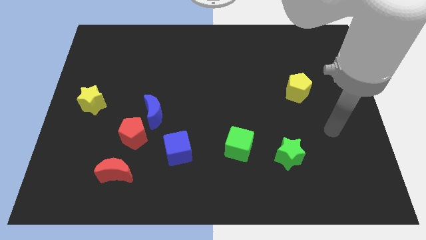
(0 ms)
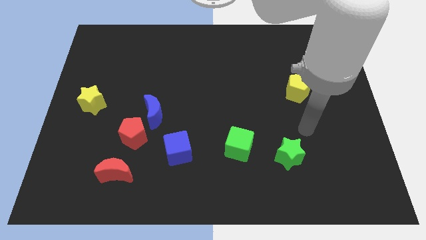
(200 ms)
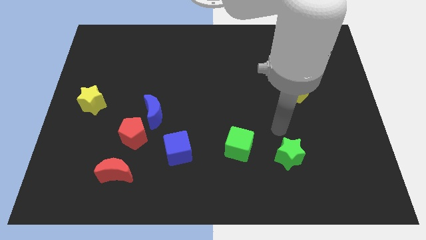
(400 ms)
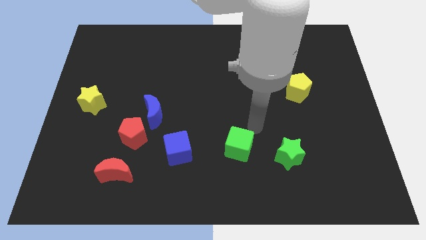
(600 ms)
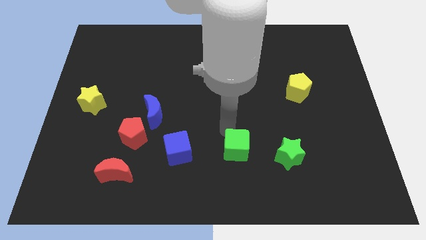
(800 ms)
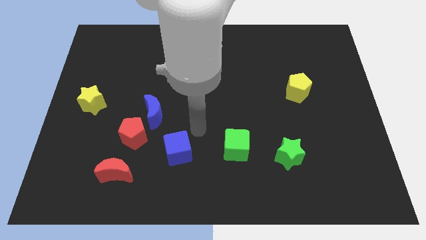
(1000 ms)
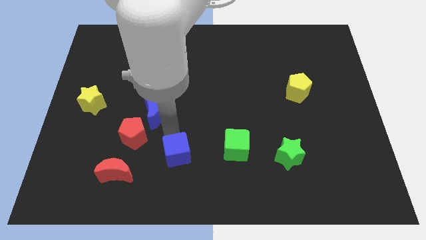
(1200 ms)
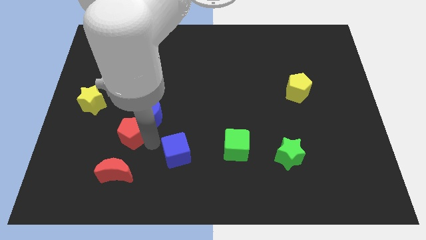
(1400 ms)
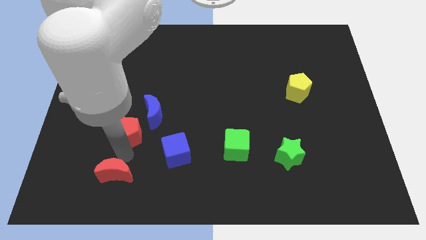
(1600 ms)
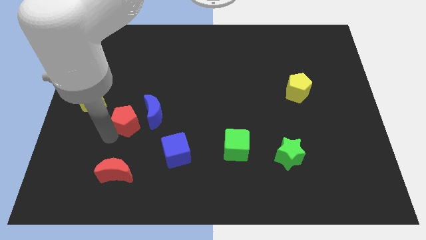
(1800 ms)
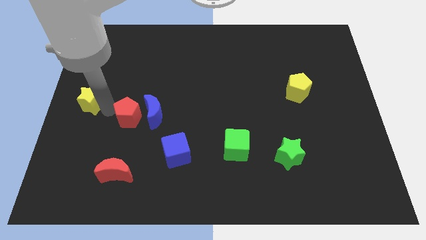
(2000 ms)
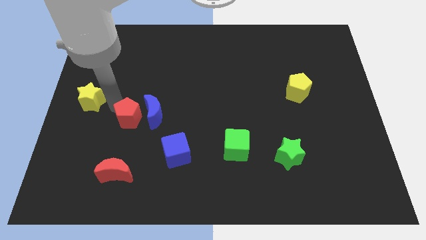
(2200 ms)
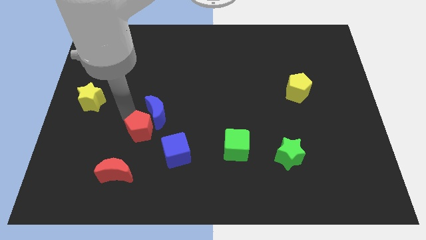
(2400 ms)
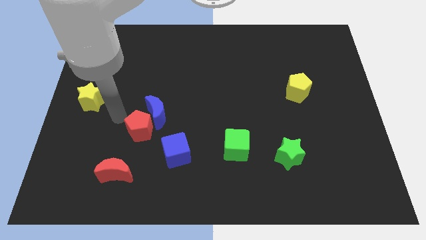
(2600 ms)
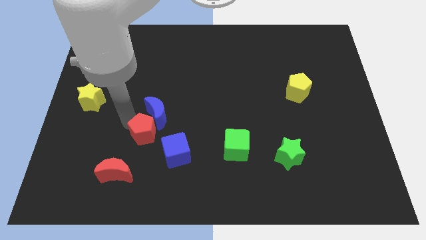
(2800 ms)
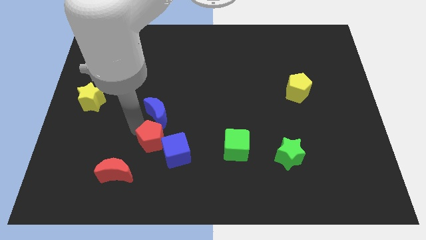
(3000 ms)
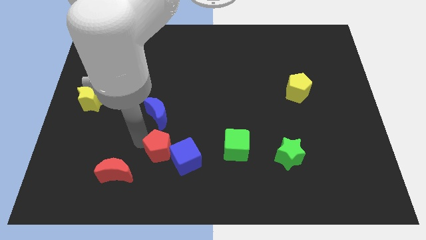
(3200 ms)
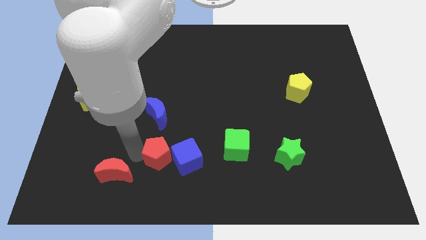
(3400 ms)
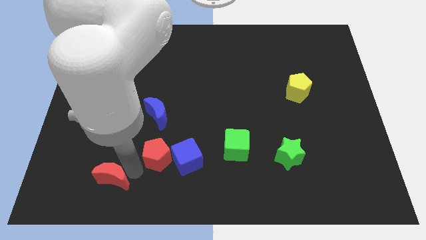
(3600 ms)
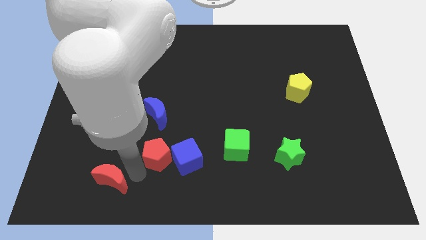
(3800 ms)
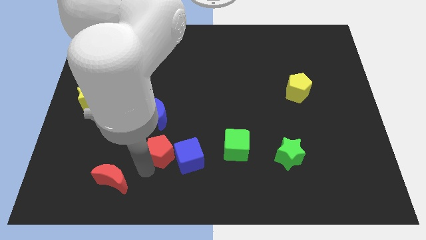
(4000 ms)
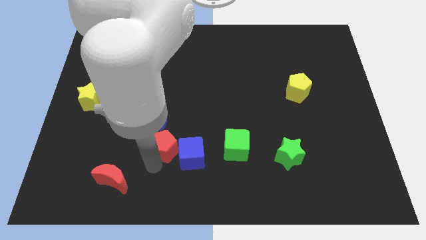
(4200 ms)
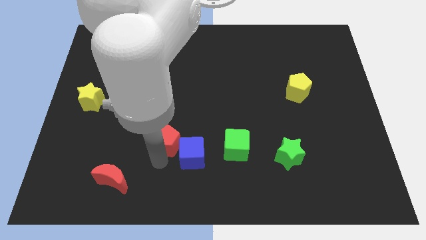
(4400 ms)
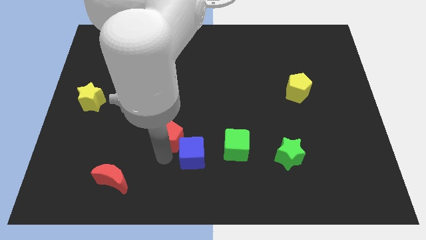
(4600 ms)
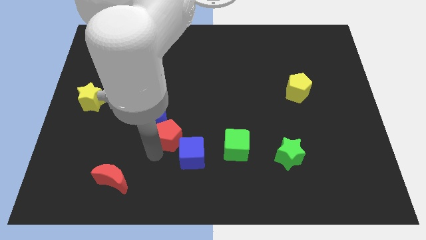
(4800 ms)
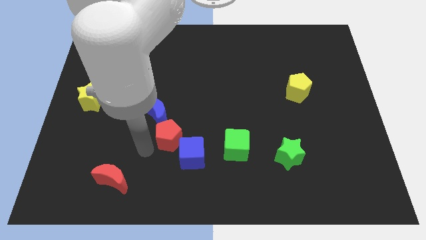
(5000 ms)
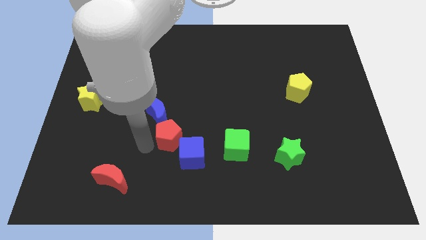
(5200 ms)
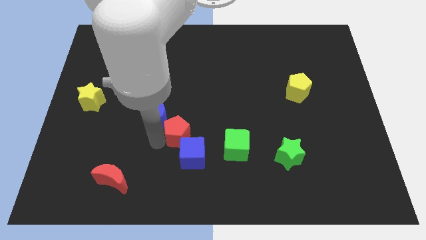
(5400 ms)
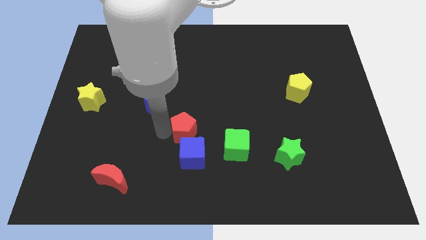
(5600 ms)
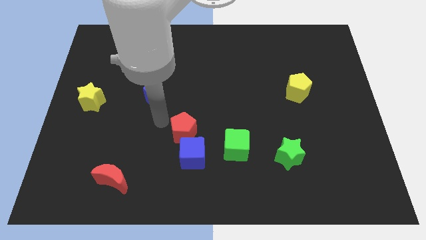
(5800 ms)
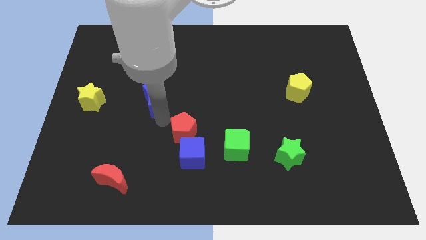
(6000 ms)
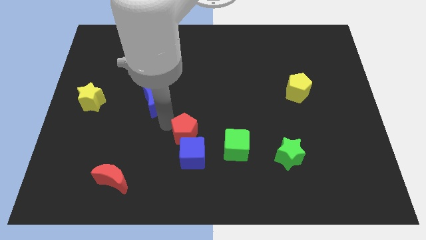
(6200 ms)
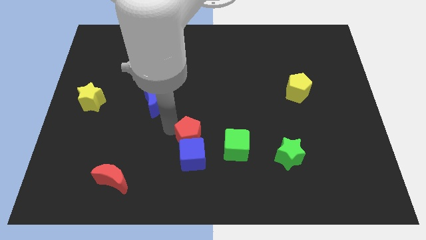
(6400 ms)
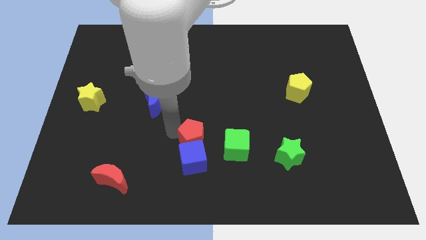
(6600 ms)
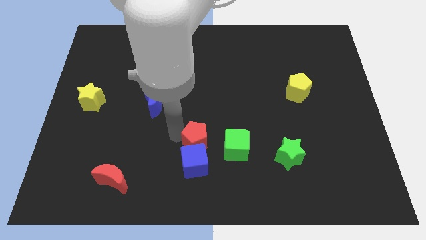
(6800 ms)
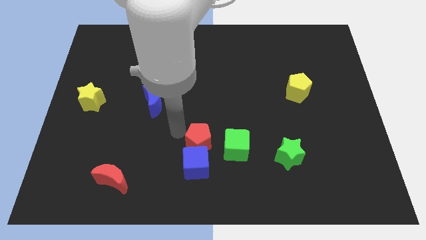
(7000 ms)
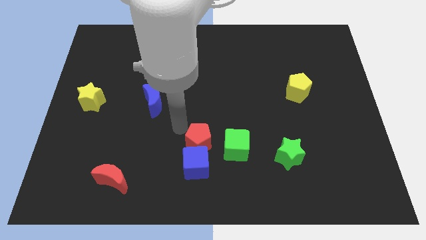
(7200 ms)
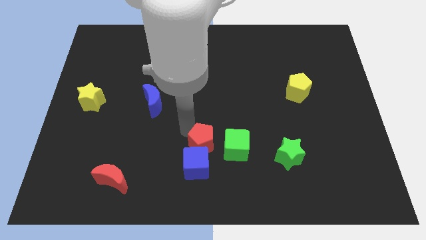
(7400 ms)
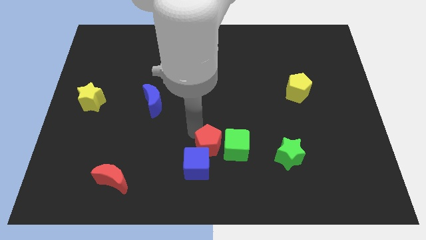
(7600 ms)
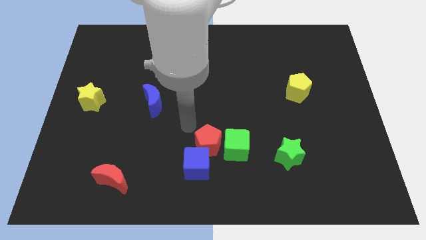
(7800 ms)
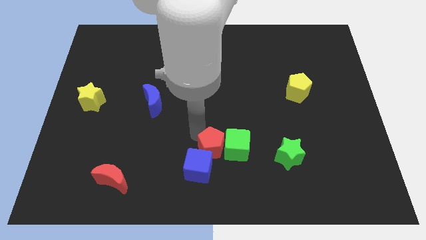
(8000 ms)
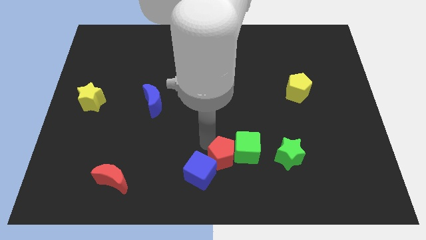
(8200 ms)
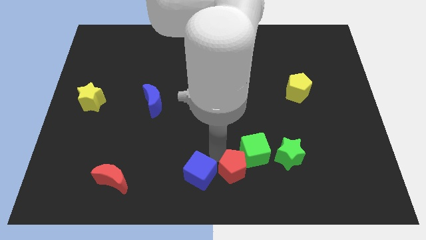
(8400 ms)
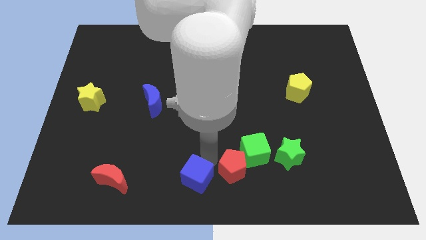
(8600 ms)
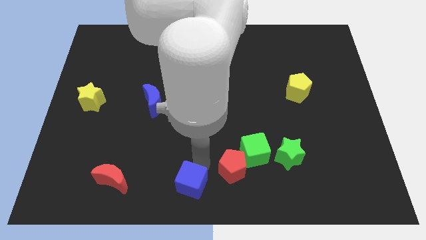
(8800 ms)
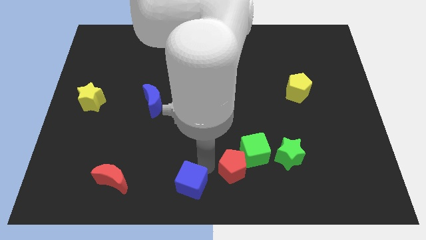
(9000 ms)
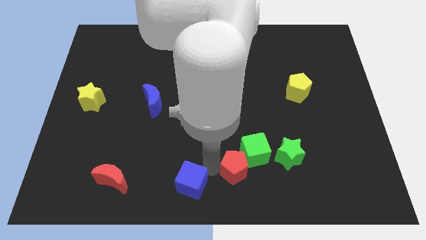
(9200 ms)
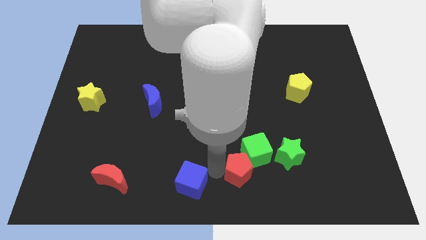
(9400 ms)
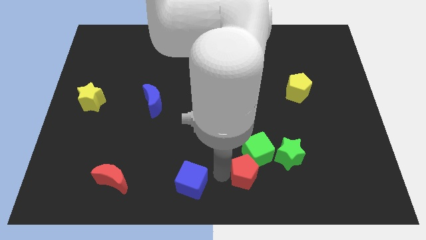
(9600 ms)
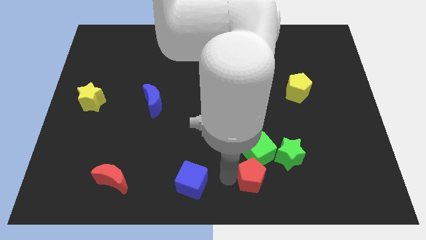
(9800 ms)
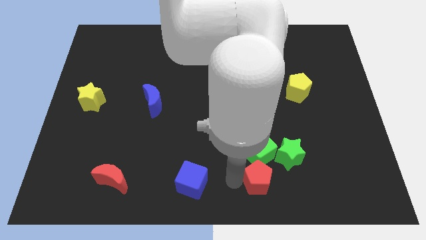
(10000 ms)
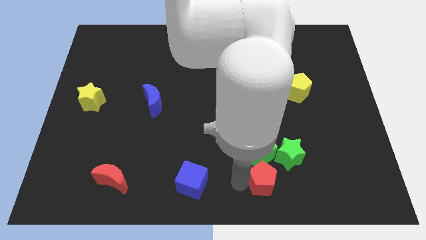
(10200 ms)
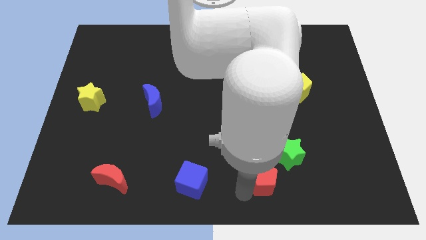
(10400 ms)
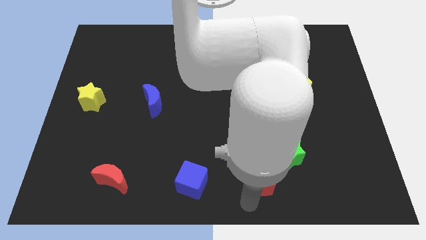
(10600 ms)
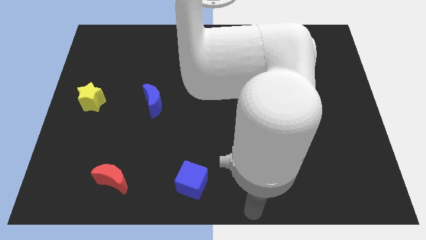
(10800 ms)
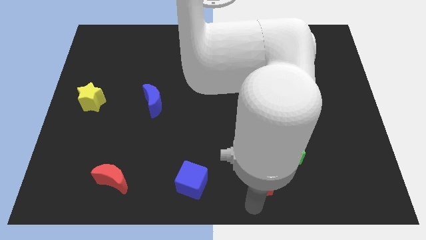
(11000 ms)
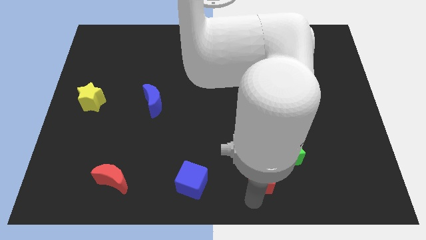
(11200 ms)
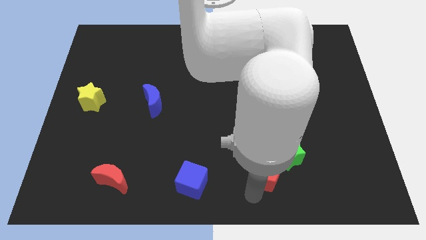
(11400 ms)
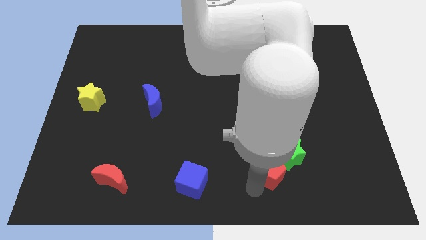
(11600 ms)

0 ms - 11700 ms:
push the red pentagon towards the green star

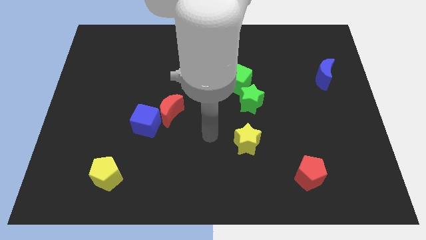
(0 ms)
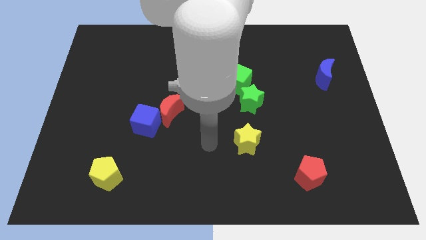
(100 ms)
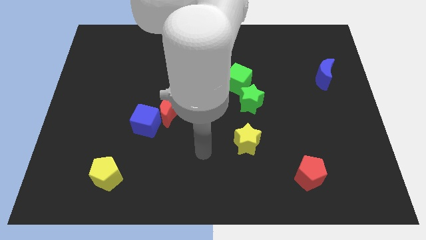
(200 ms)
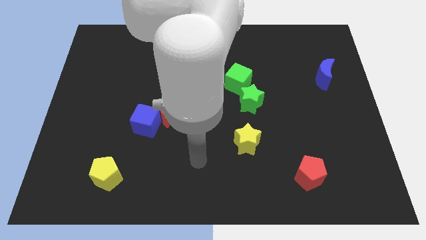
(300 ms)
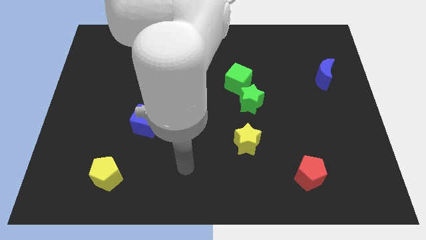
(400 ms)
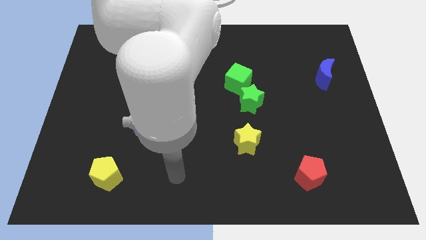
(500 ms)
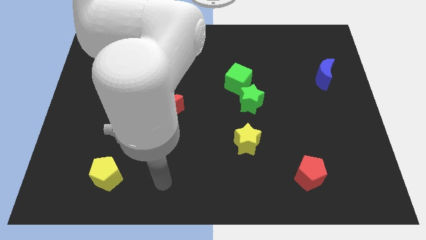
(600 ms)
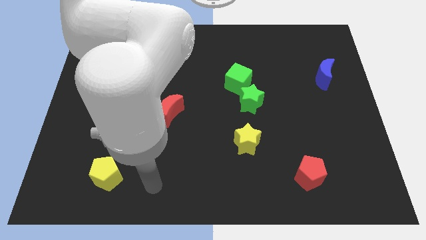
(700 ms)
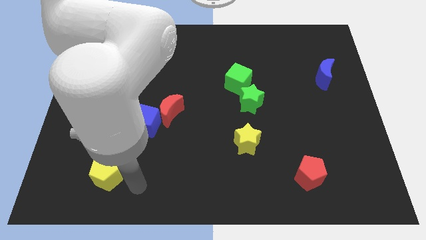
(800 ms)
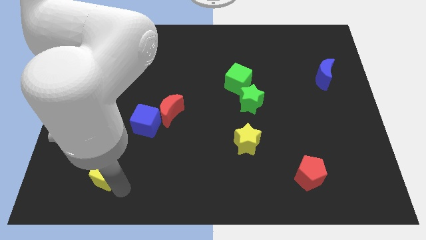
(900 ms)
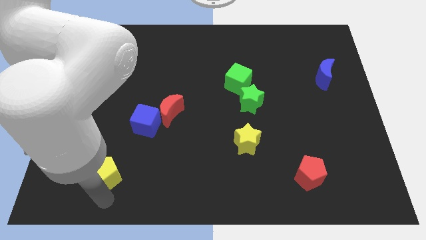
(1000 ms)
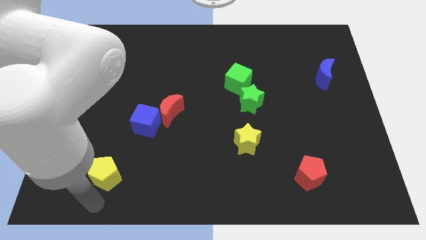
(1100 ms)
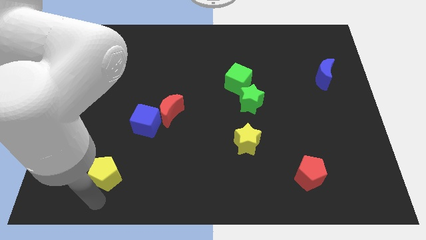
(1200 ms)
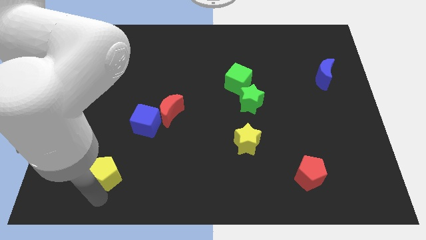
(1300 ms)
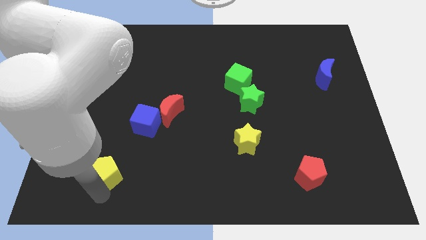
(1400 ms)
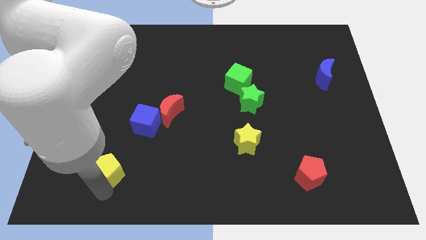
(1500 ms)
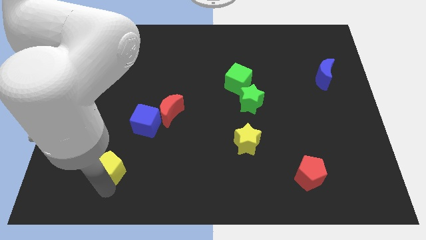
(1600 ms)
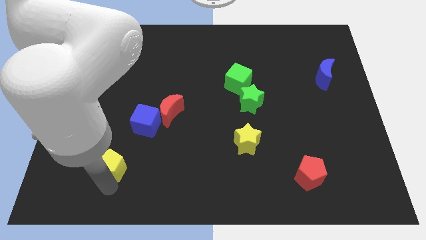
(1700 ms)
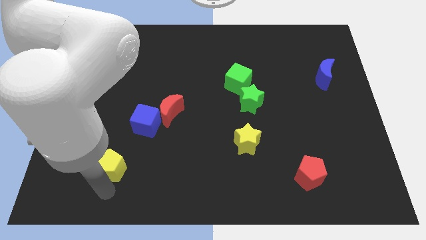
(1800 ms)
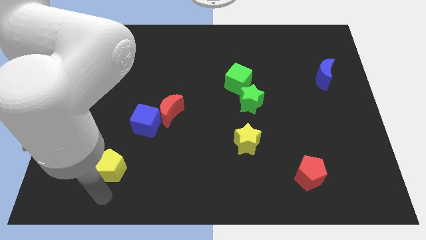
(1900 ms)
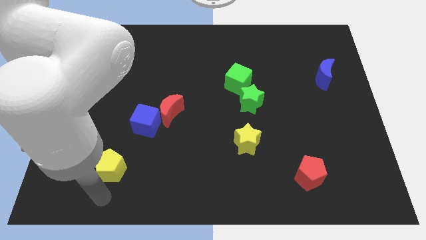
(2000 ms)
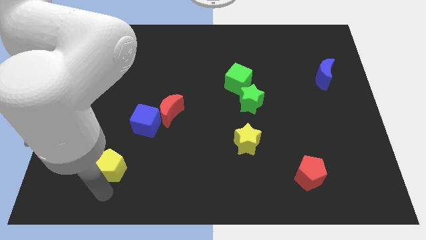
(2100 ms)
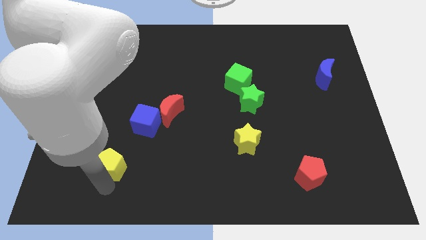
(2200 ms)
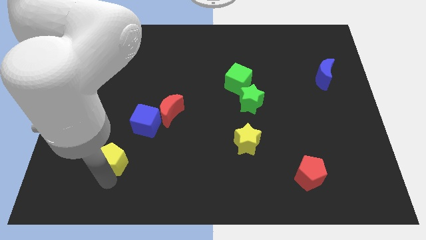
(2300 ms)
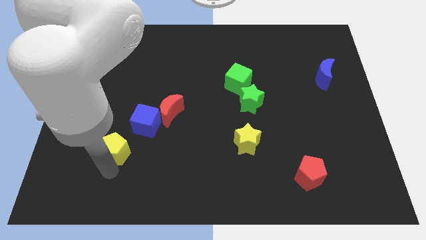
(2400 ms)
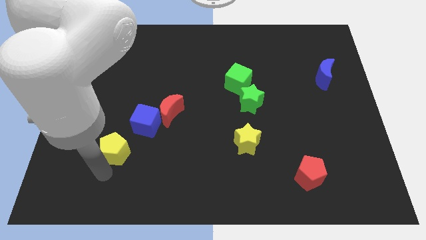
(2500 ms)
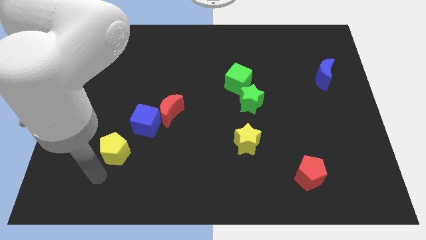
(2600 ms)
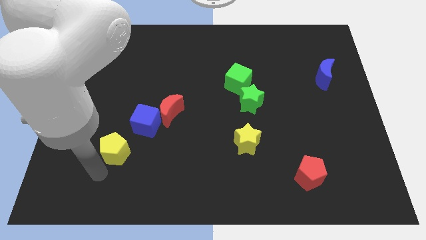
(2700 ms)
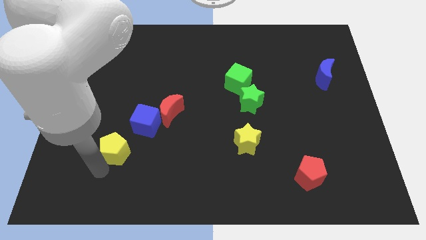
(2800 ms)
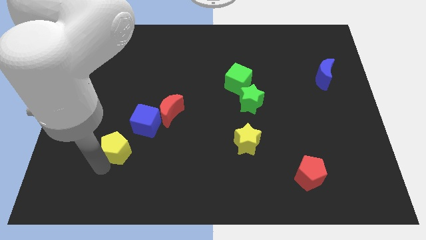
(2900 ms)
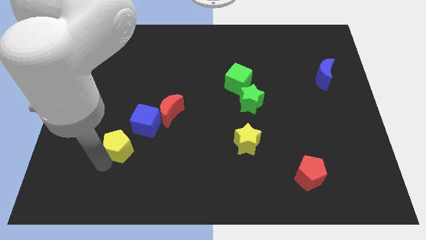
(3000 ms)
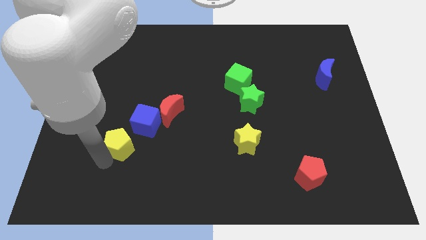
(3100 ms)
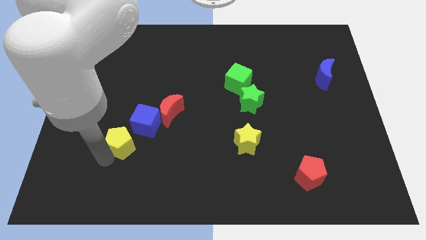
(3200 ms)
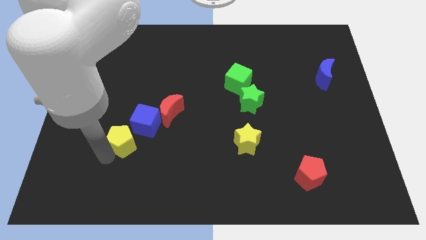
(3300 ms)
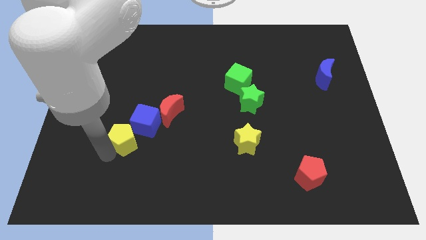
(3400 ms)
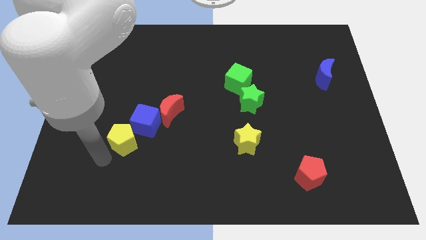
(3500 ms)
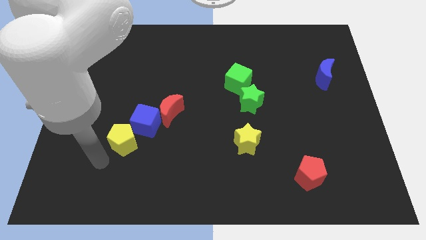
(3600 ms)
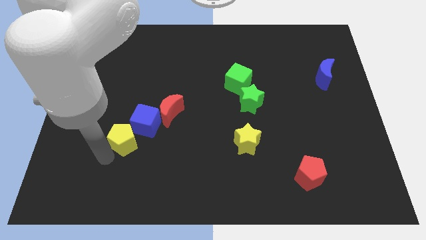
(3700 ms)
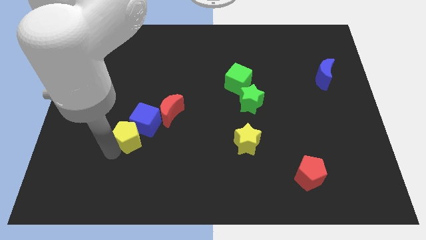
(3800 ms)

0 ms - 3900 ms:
slide the yellow pentagon close to the blue cube
